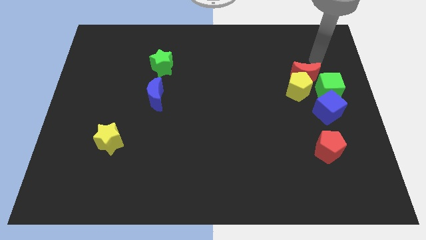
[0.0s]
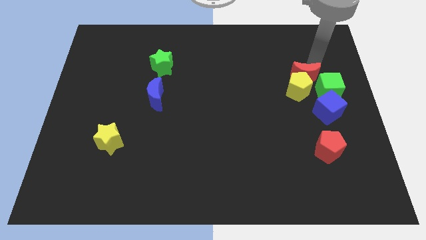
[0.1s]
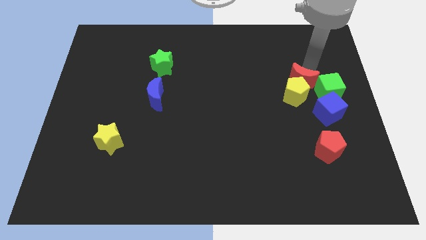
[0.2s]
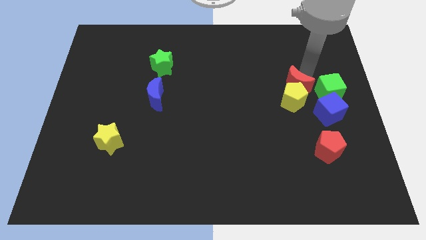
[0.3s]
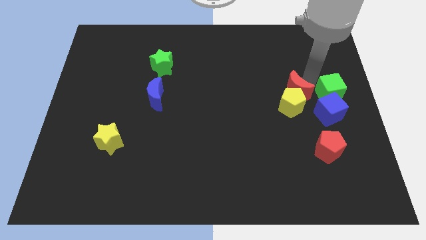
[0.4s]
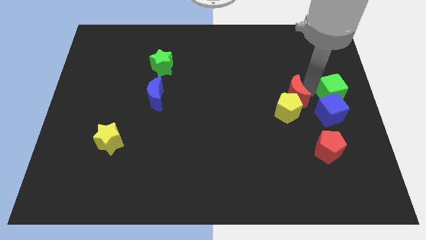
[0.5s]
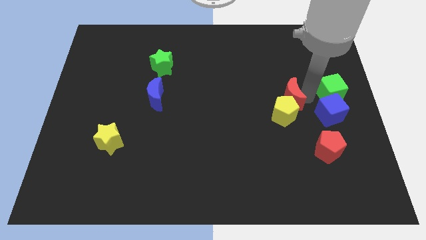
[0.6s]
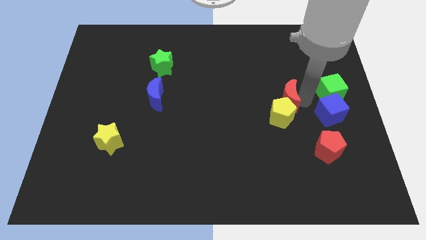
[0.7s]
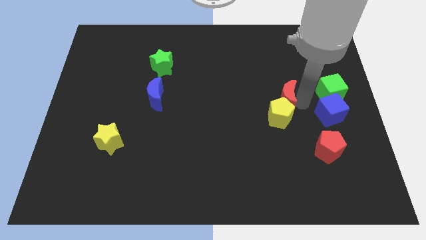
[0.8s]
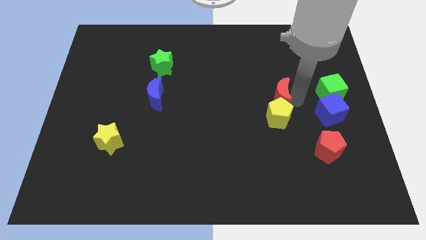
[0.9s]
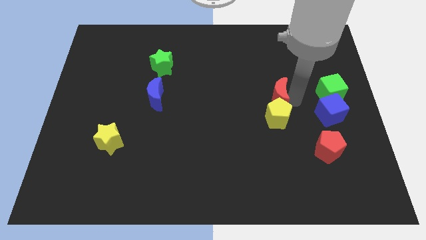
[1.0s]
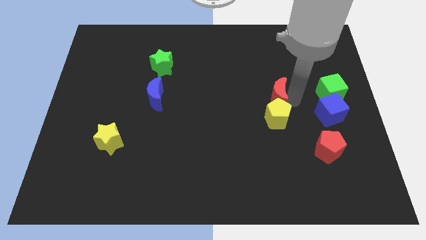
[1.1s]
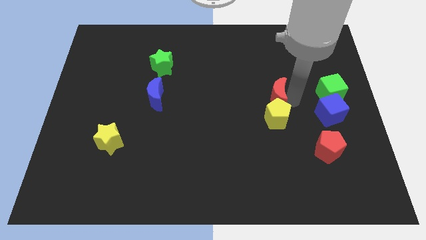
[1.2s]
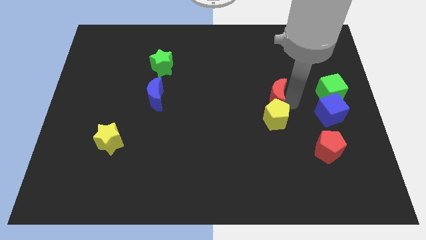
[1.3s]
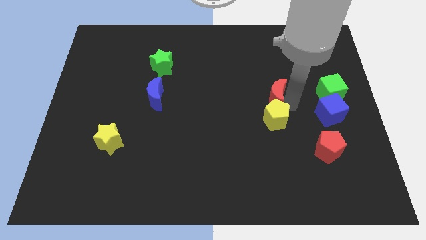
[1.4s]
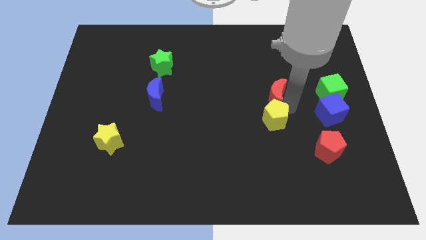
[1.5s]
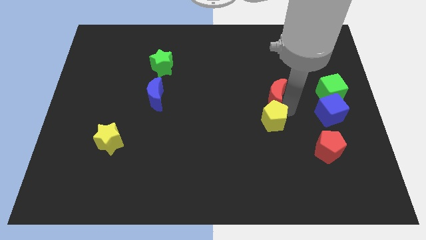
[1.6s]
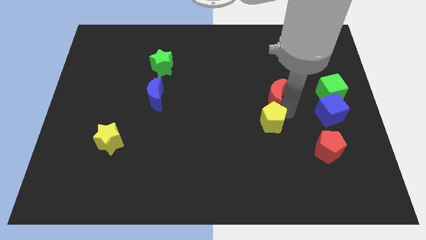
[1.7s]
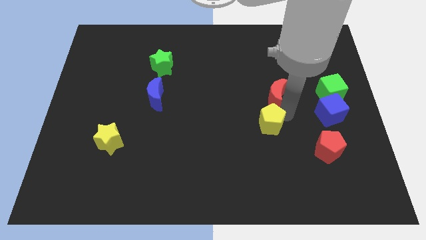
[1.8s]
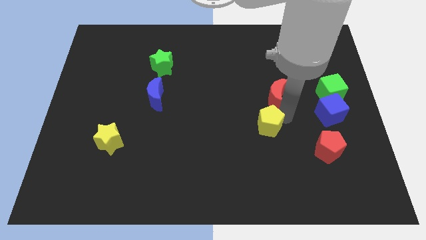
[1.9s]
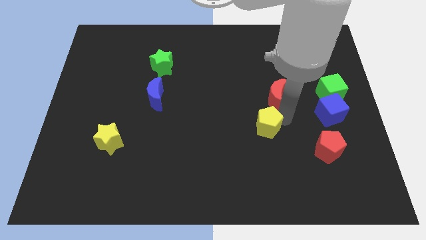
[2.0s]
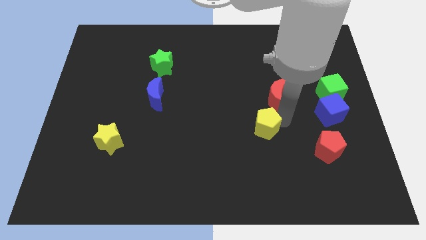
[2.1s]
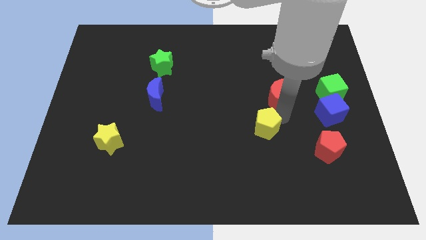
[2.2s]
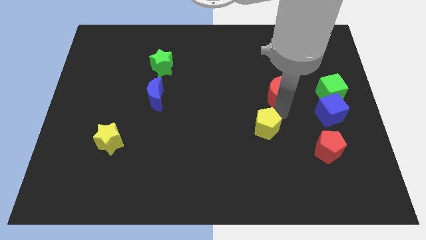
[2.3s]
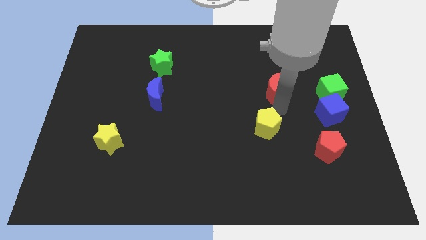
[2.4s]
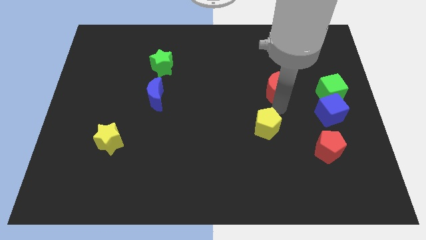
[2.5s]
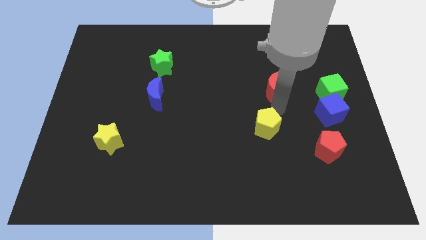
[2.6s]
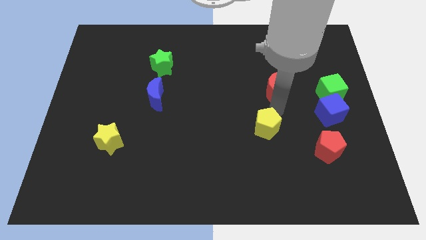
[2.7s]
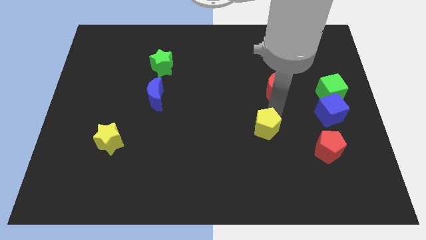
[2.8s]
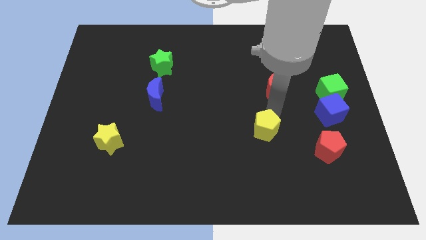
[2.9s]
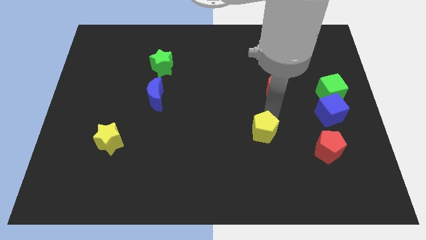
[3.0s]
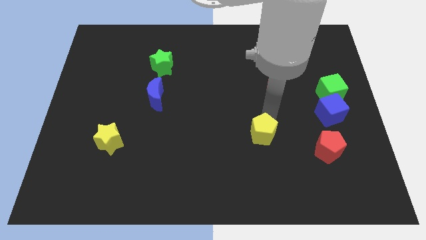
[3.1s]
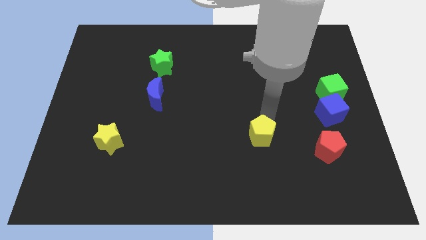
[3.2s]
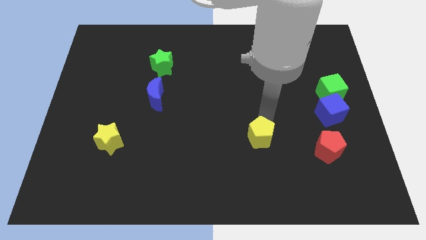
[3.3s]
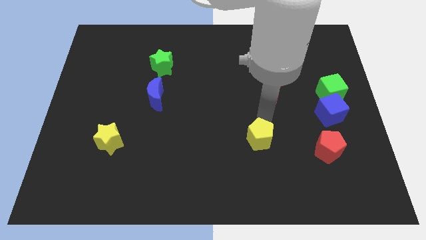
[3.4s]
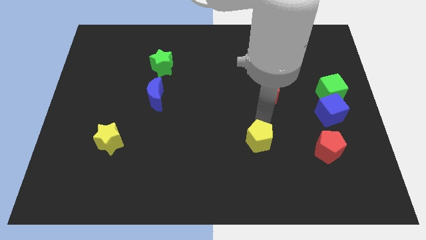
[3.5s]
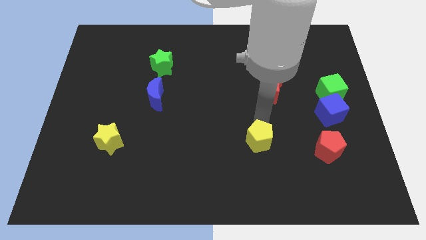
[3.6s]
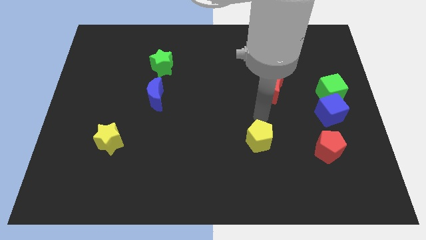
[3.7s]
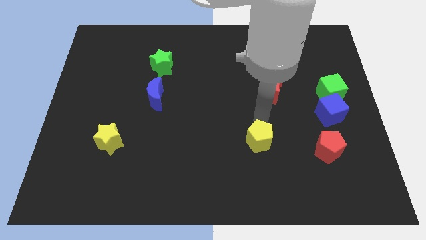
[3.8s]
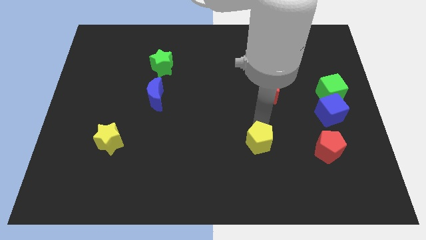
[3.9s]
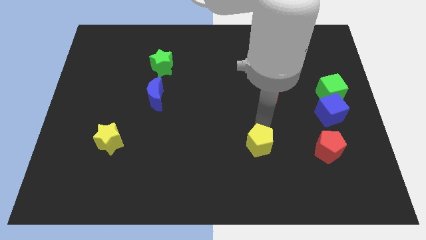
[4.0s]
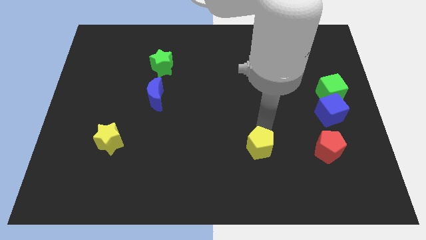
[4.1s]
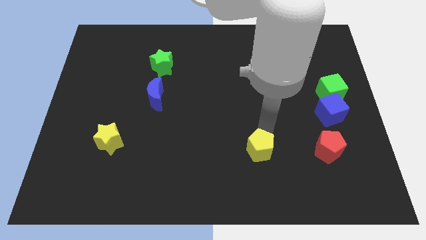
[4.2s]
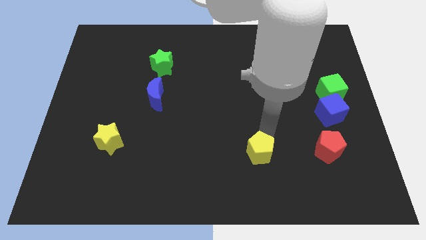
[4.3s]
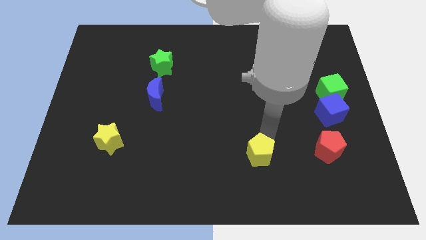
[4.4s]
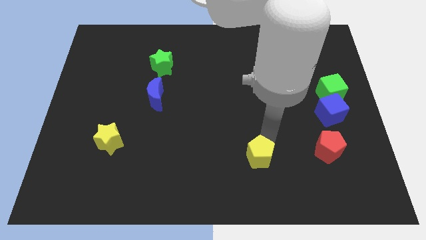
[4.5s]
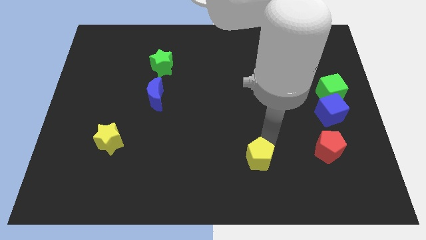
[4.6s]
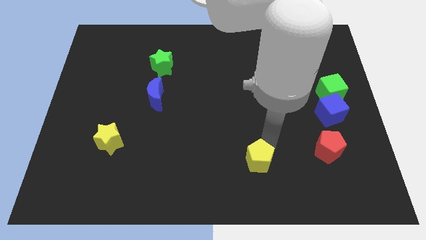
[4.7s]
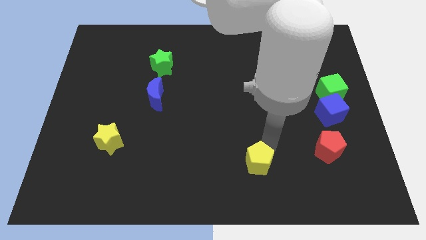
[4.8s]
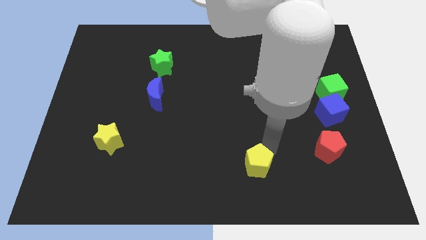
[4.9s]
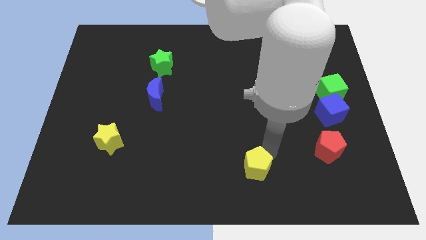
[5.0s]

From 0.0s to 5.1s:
move the yellow pentagon to the bottom

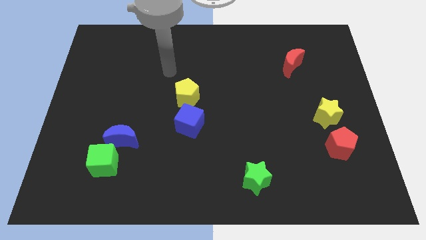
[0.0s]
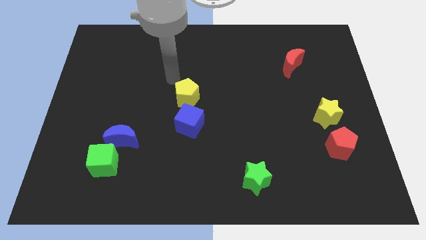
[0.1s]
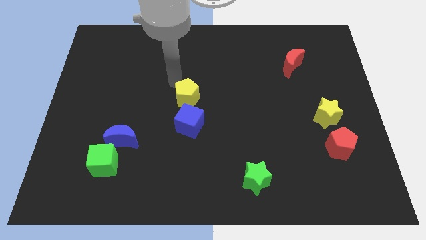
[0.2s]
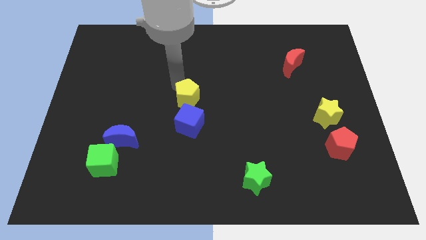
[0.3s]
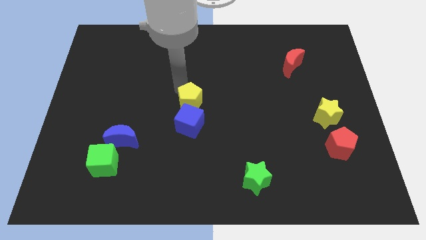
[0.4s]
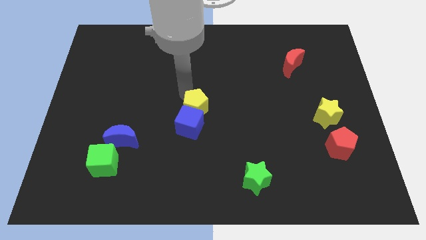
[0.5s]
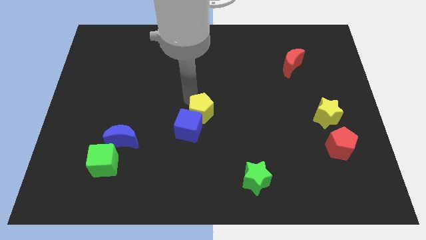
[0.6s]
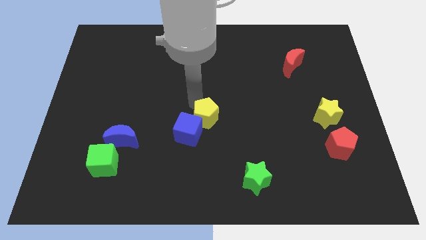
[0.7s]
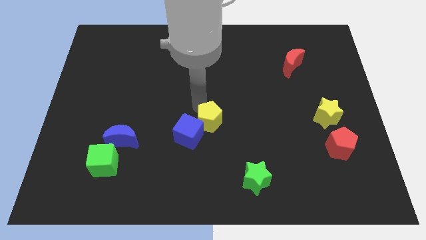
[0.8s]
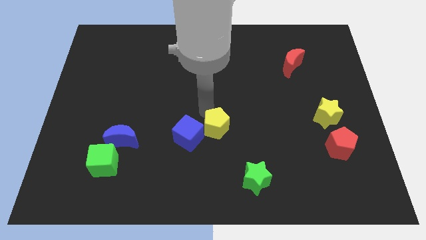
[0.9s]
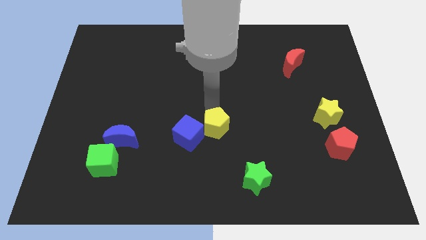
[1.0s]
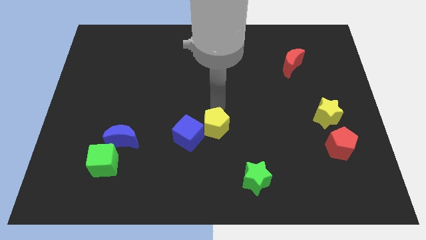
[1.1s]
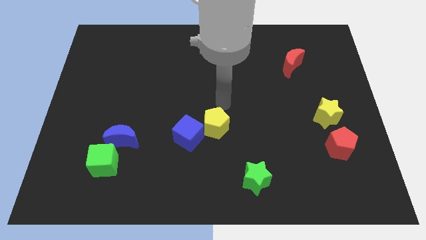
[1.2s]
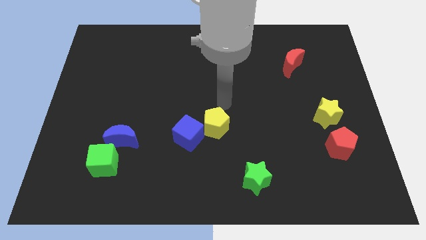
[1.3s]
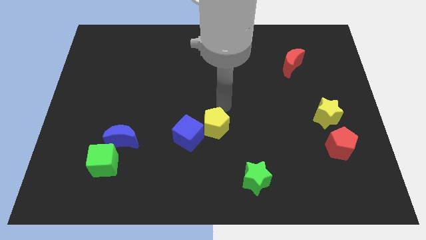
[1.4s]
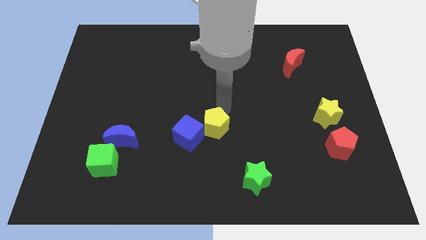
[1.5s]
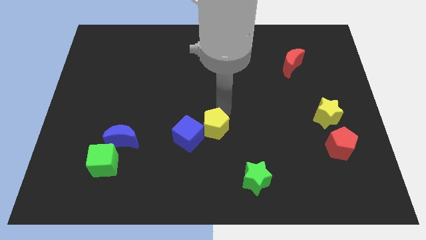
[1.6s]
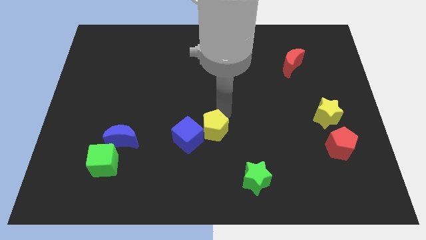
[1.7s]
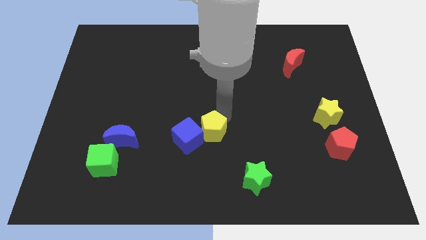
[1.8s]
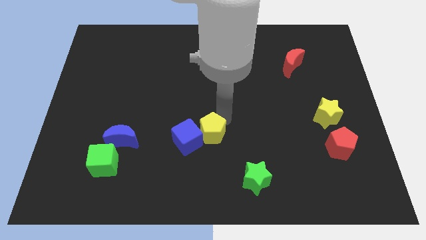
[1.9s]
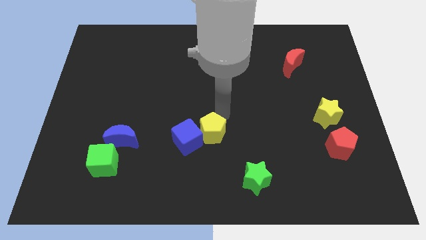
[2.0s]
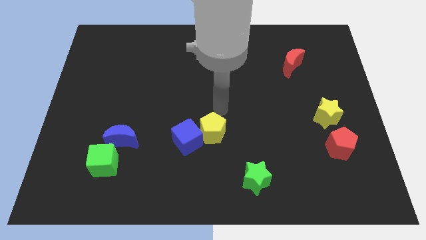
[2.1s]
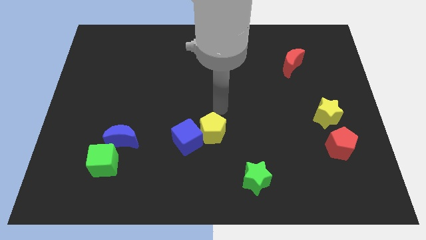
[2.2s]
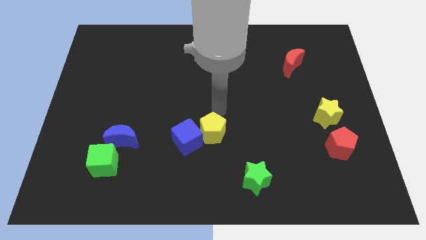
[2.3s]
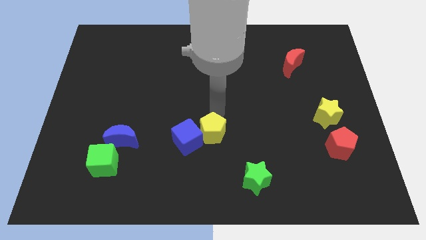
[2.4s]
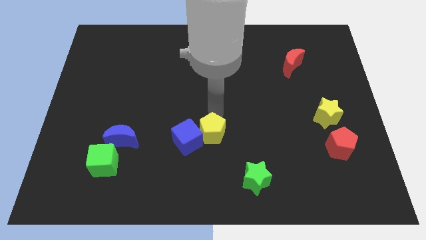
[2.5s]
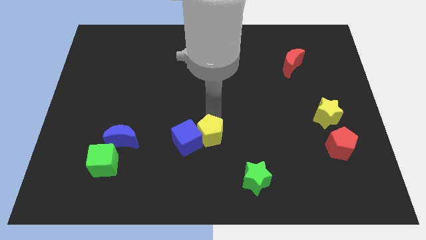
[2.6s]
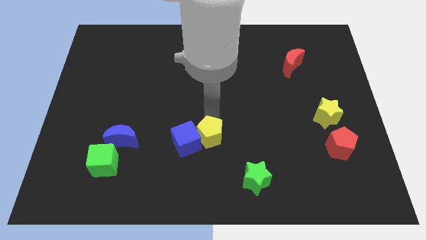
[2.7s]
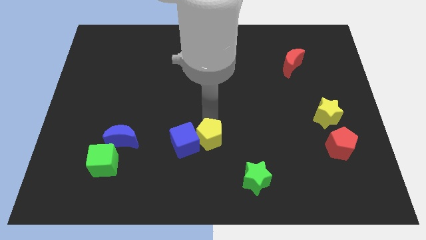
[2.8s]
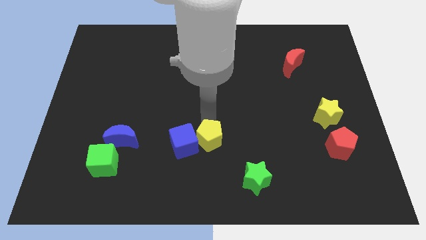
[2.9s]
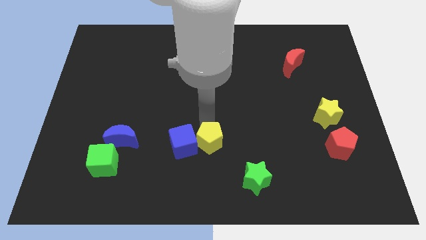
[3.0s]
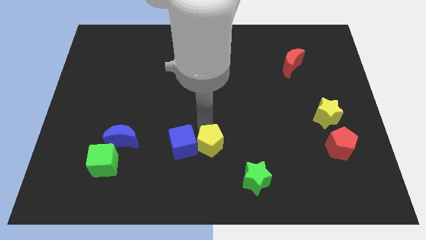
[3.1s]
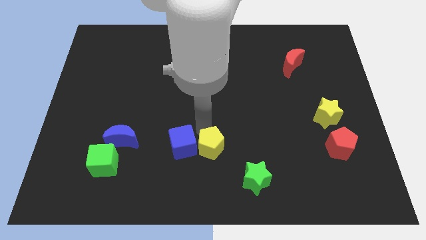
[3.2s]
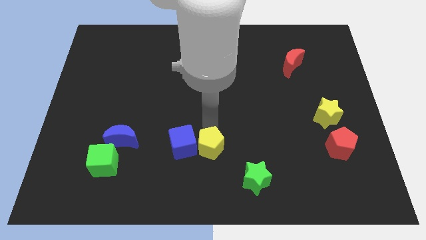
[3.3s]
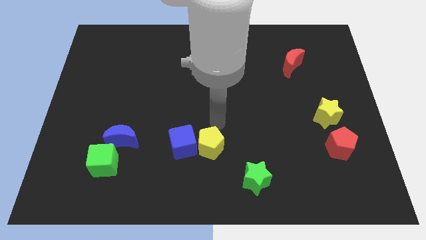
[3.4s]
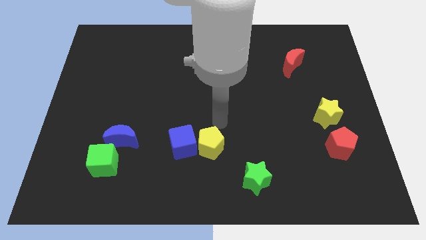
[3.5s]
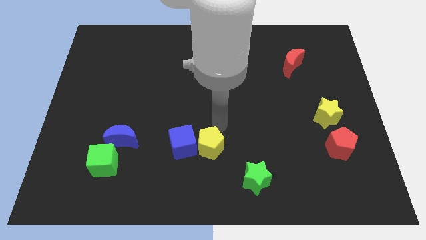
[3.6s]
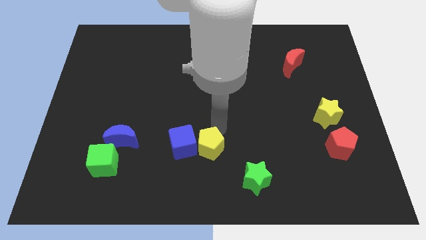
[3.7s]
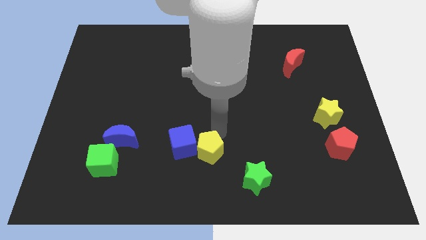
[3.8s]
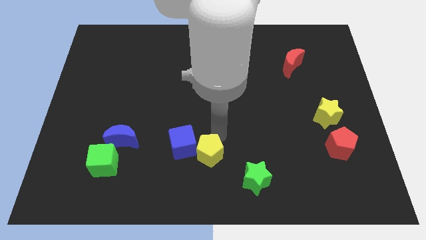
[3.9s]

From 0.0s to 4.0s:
put the yellow pentagon to the bottom side
